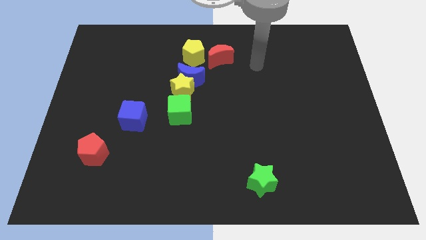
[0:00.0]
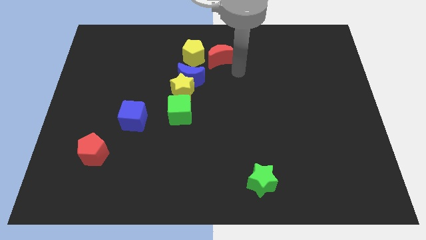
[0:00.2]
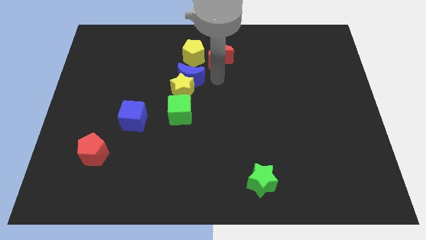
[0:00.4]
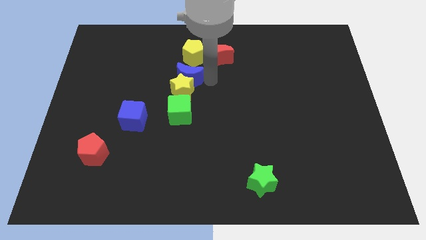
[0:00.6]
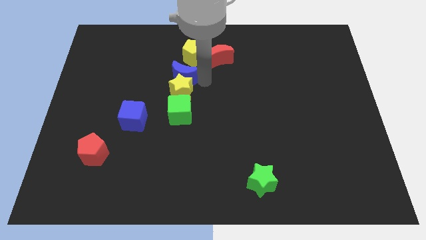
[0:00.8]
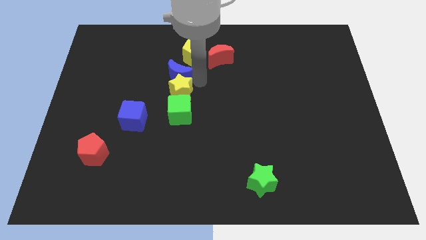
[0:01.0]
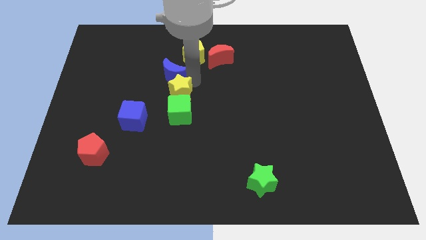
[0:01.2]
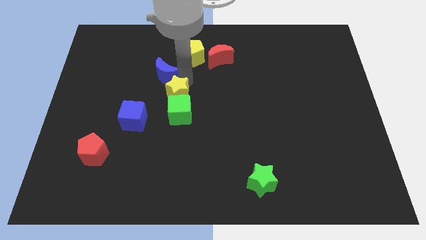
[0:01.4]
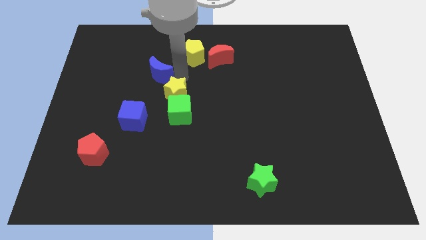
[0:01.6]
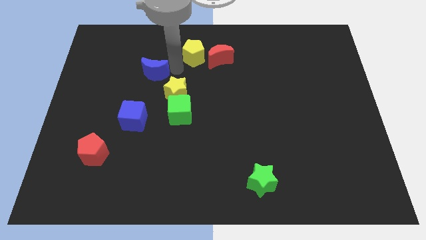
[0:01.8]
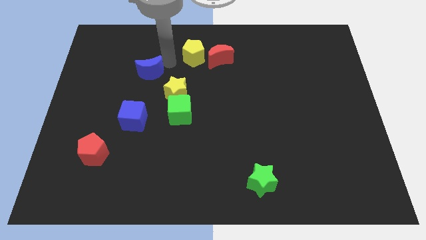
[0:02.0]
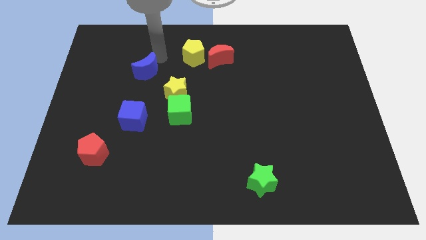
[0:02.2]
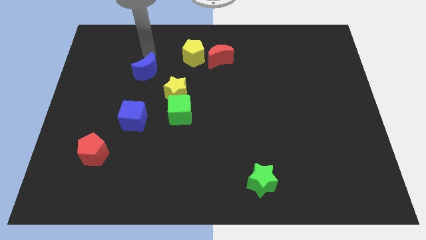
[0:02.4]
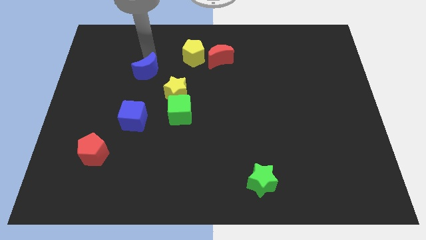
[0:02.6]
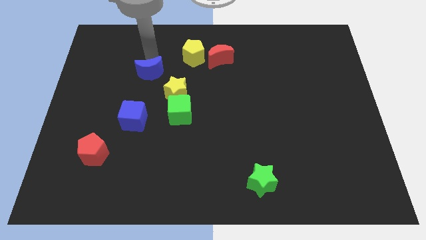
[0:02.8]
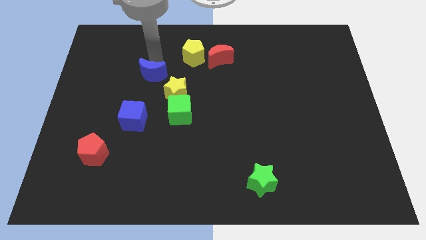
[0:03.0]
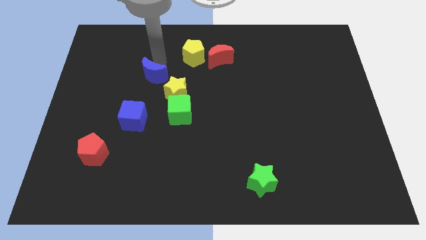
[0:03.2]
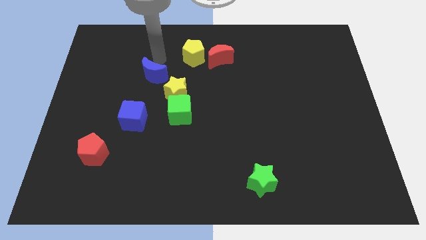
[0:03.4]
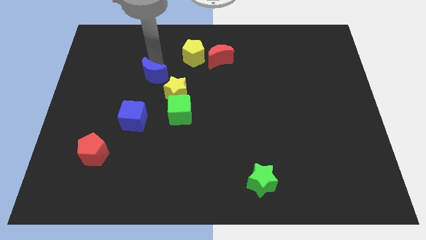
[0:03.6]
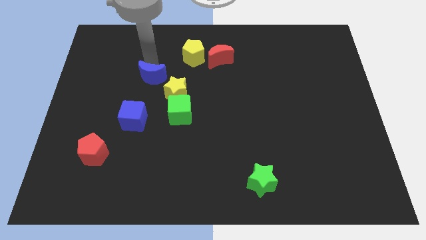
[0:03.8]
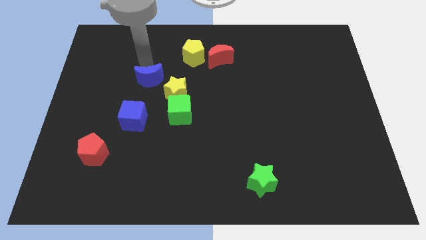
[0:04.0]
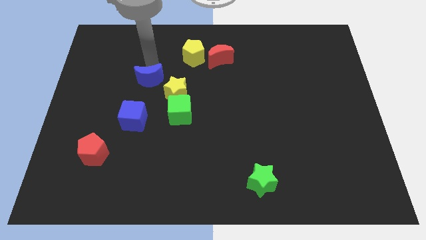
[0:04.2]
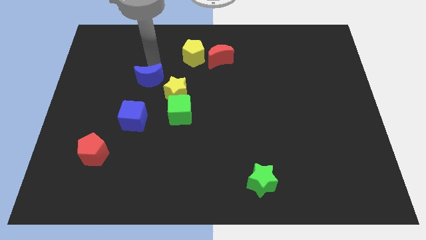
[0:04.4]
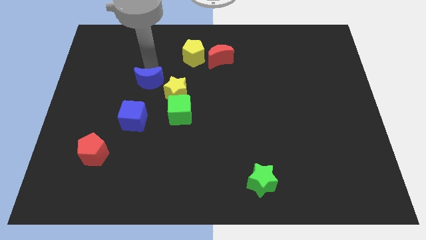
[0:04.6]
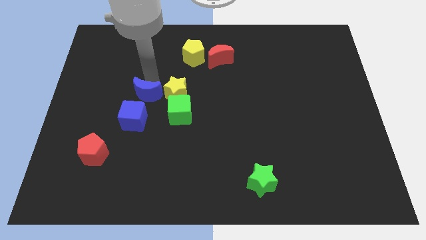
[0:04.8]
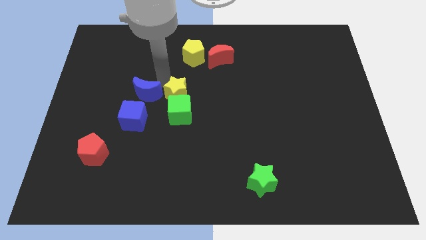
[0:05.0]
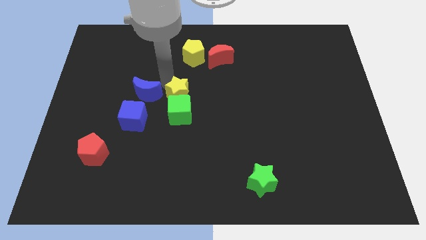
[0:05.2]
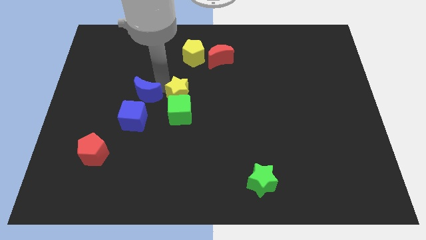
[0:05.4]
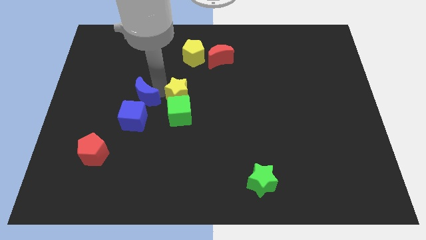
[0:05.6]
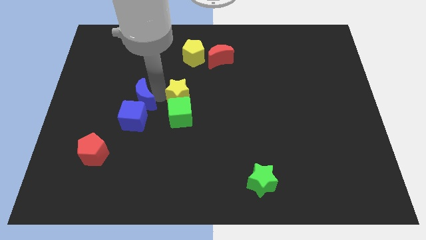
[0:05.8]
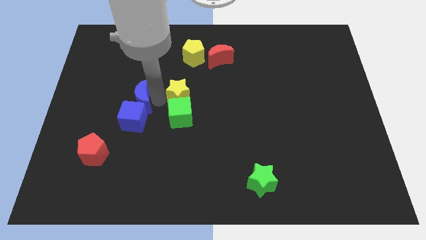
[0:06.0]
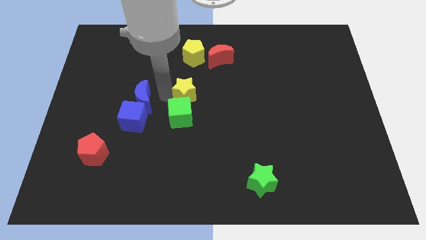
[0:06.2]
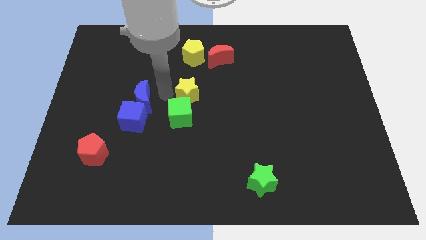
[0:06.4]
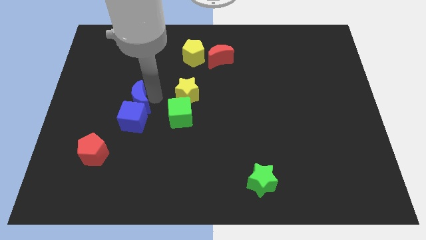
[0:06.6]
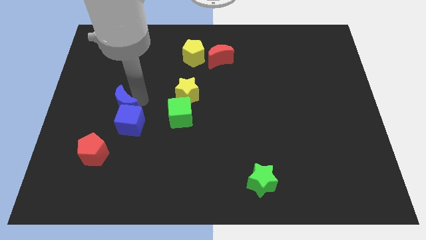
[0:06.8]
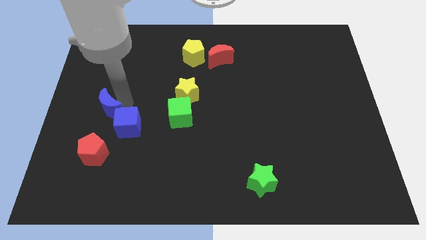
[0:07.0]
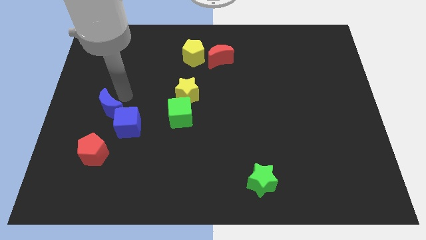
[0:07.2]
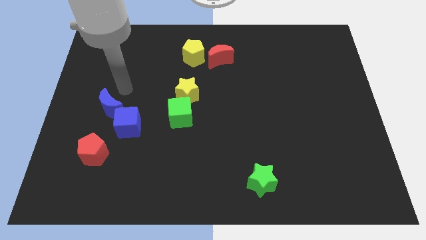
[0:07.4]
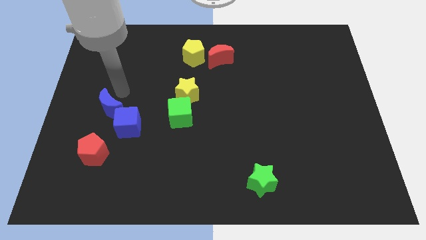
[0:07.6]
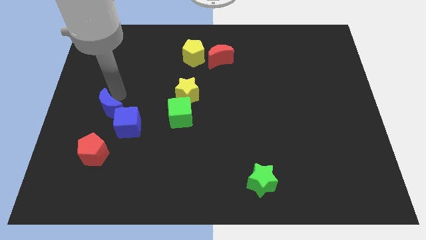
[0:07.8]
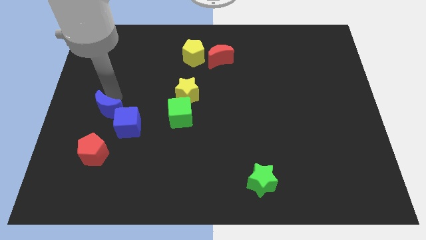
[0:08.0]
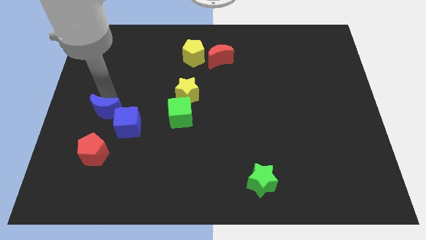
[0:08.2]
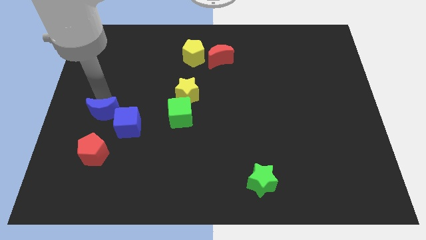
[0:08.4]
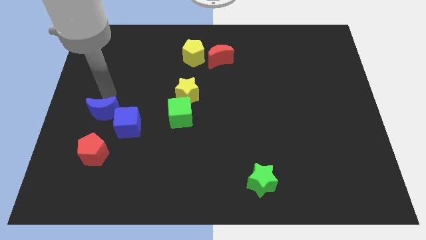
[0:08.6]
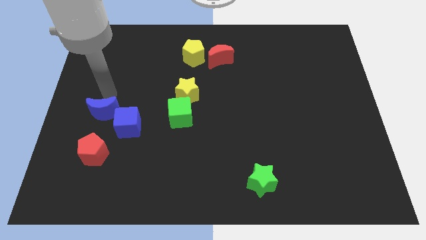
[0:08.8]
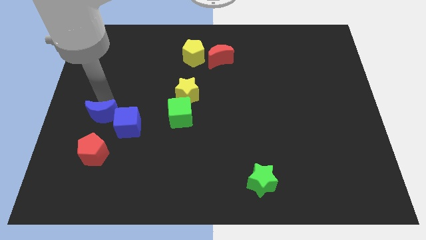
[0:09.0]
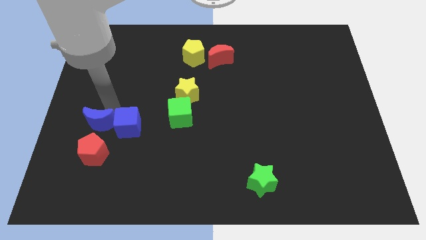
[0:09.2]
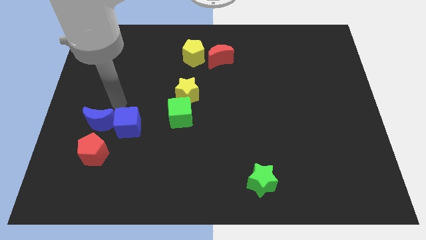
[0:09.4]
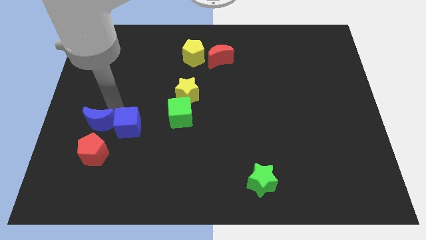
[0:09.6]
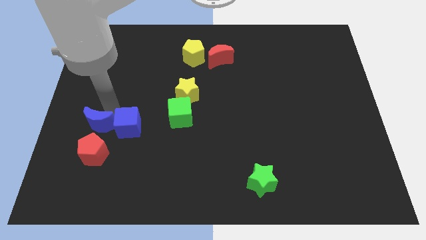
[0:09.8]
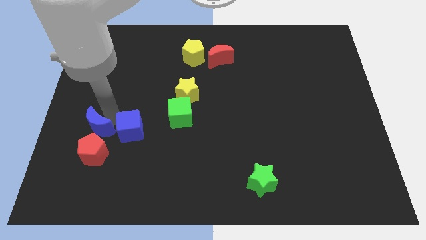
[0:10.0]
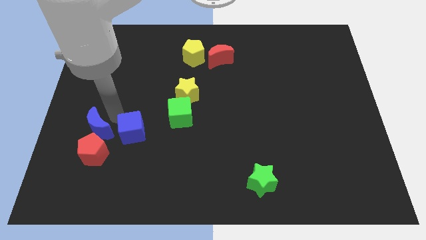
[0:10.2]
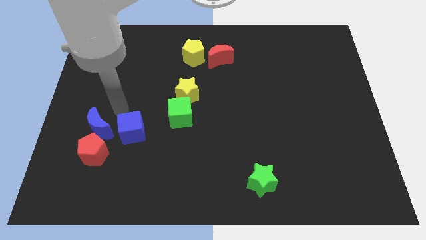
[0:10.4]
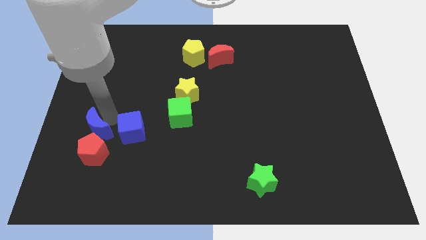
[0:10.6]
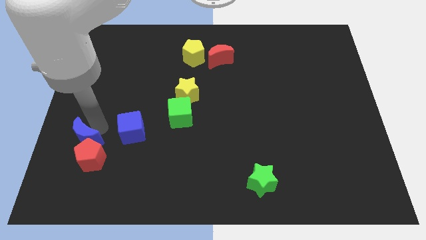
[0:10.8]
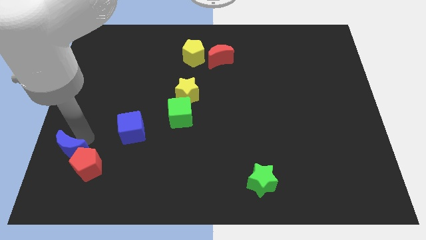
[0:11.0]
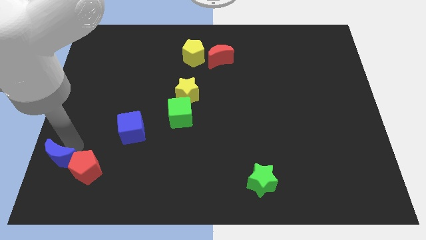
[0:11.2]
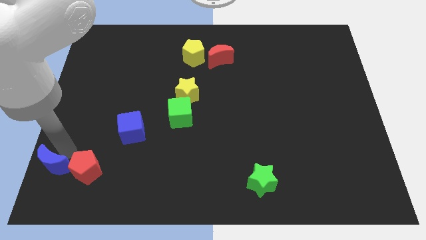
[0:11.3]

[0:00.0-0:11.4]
move the blue moon to the bottom left corner

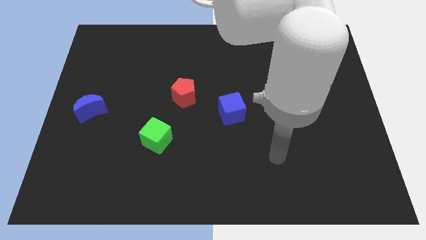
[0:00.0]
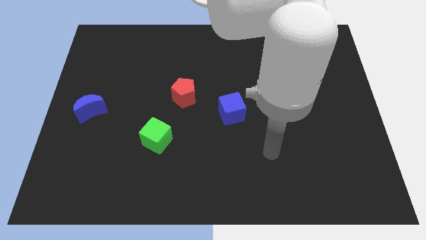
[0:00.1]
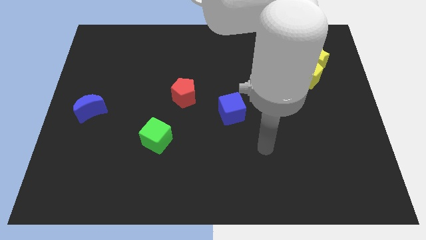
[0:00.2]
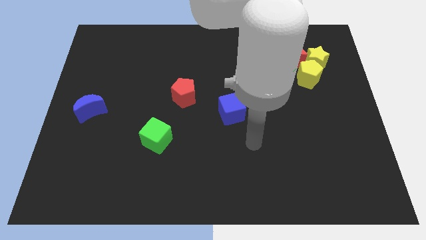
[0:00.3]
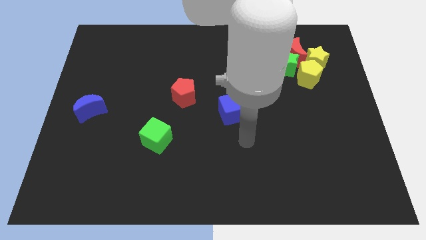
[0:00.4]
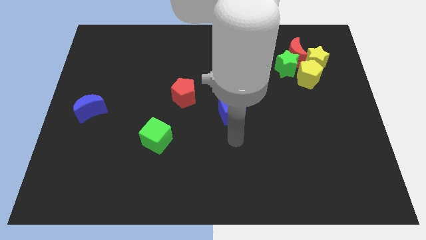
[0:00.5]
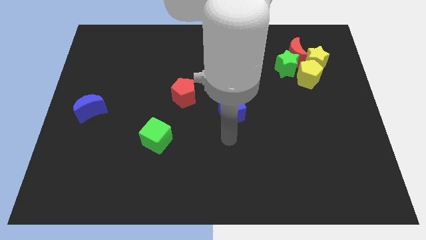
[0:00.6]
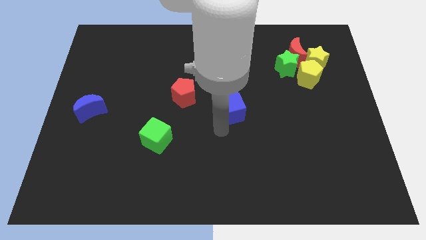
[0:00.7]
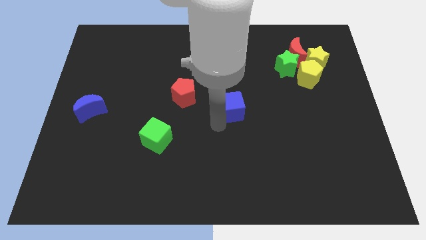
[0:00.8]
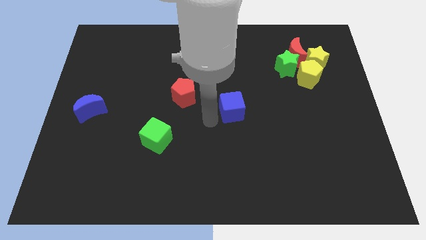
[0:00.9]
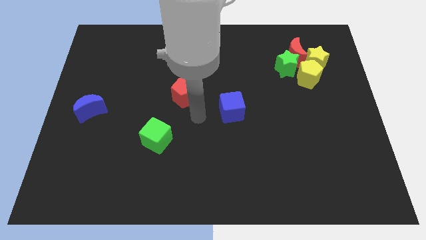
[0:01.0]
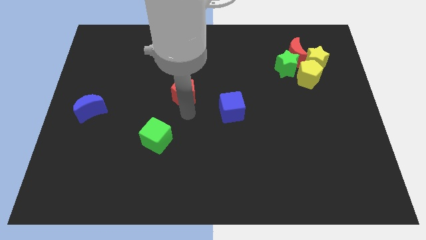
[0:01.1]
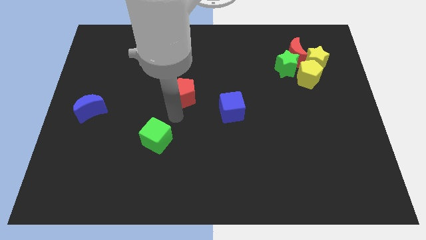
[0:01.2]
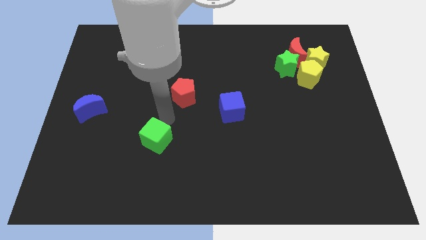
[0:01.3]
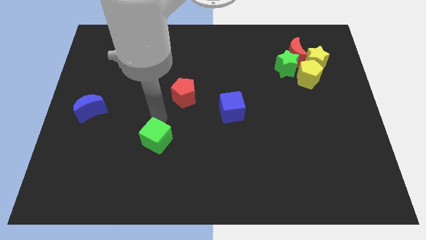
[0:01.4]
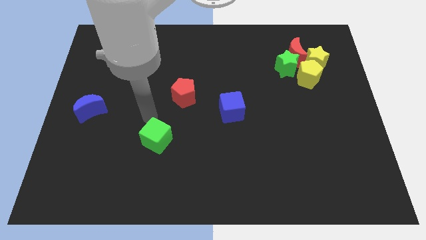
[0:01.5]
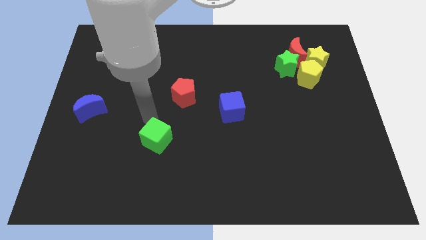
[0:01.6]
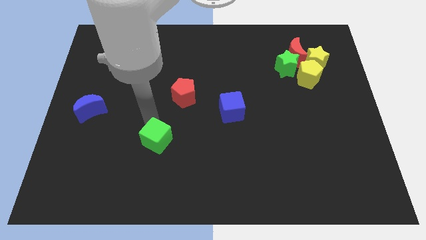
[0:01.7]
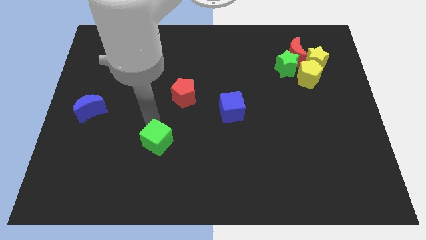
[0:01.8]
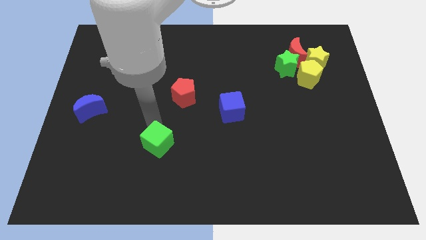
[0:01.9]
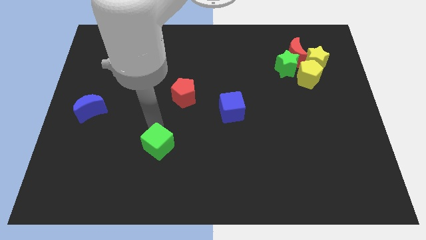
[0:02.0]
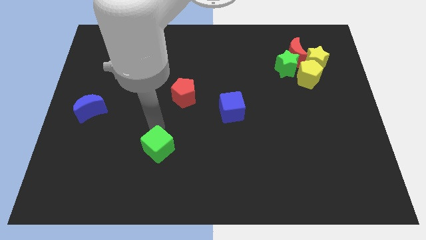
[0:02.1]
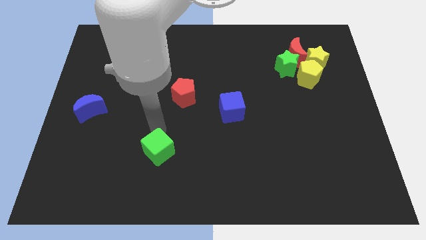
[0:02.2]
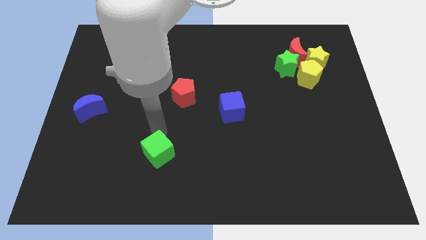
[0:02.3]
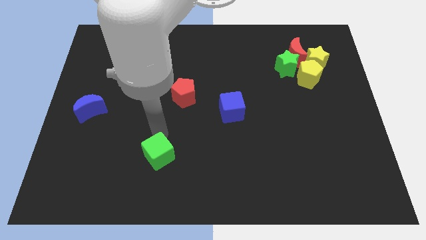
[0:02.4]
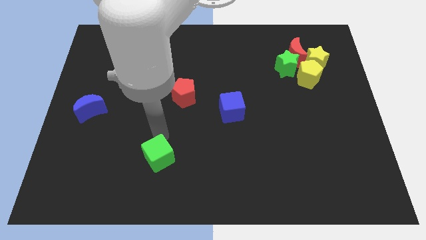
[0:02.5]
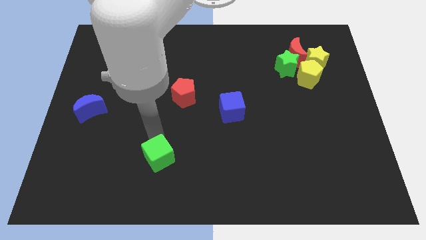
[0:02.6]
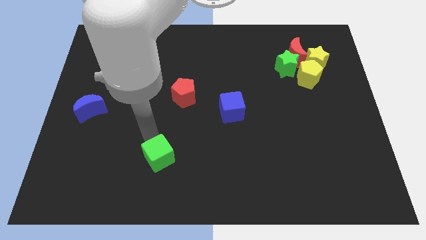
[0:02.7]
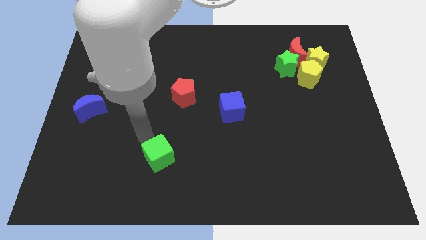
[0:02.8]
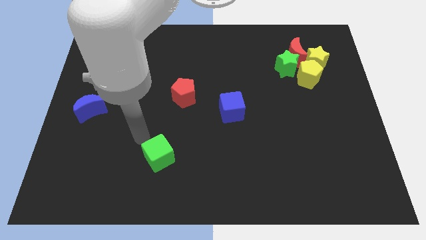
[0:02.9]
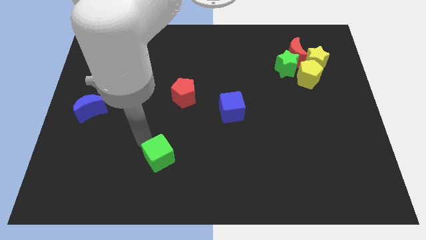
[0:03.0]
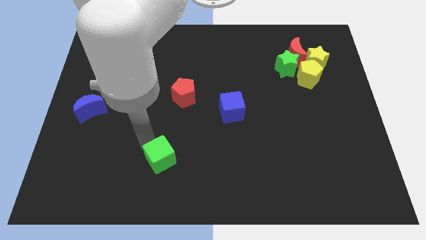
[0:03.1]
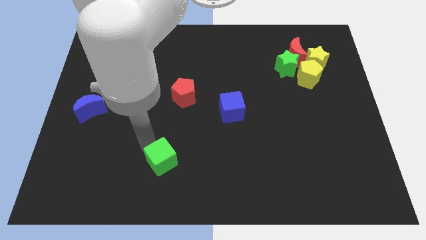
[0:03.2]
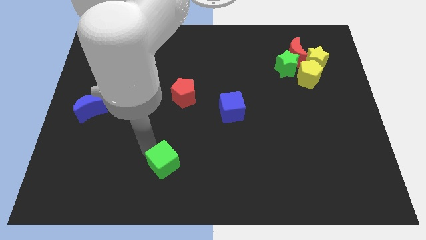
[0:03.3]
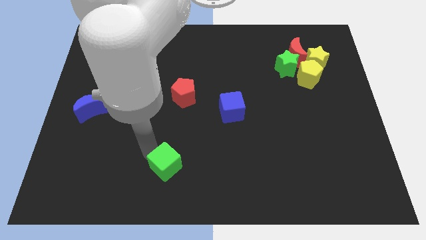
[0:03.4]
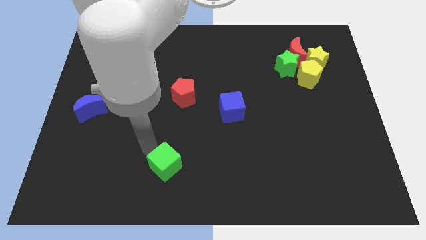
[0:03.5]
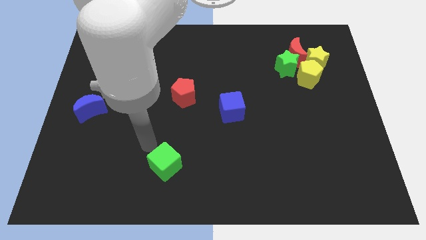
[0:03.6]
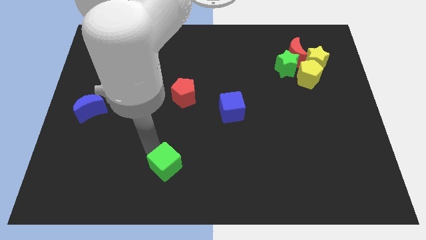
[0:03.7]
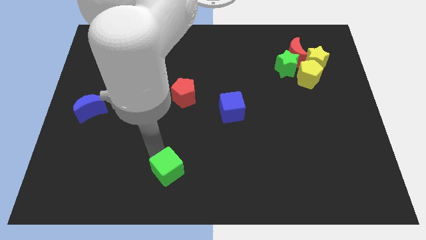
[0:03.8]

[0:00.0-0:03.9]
put the green cube to the bottom
